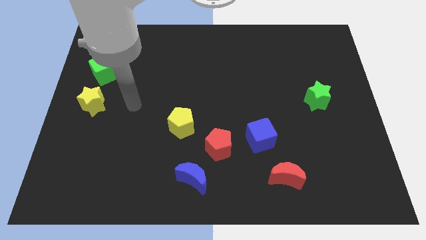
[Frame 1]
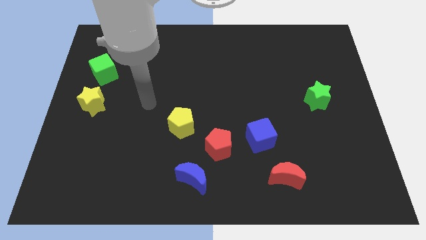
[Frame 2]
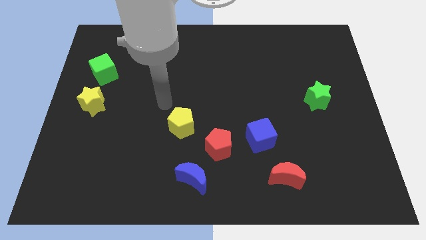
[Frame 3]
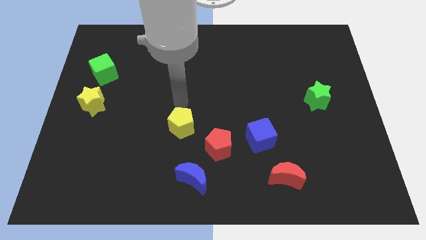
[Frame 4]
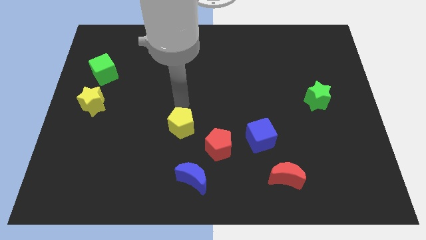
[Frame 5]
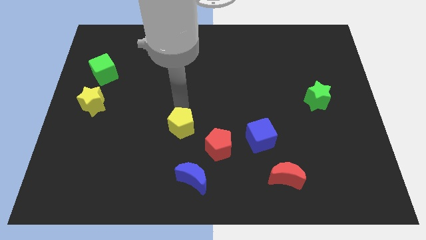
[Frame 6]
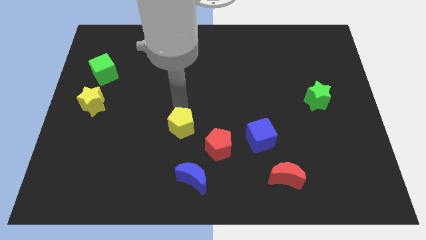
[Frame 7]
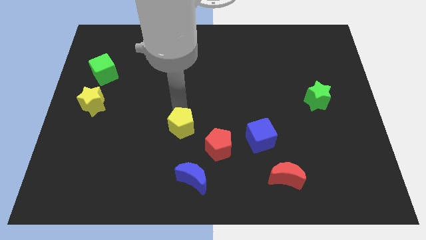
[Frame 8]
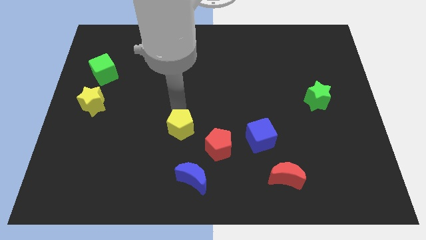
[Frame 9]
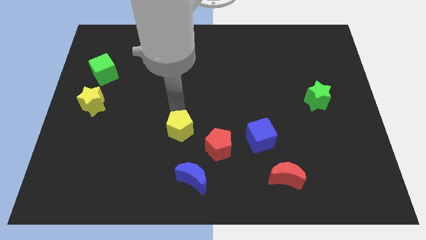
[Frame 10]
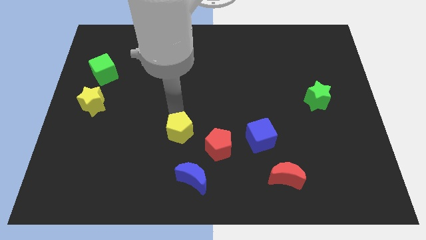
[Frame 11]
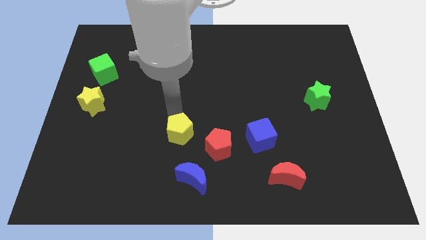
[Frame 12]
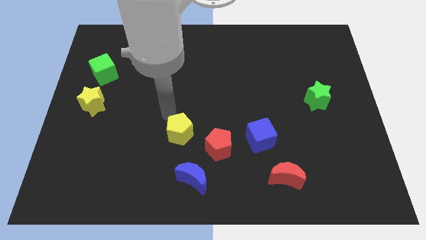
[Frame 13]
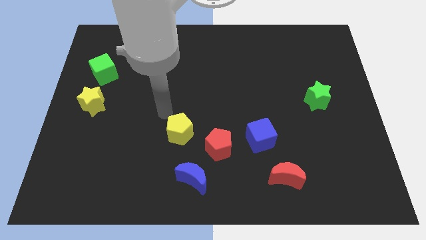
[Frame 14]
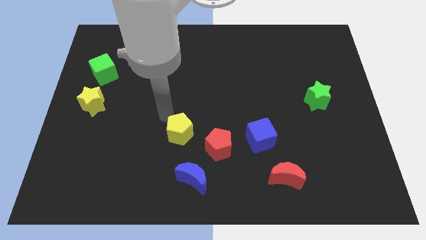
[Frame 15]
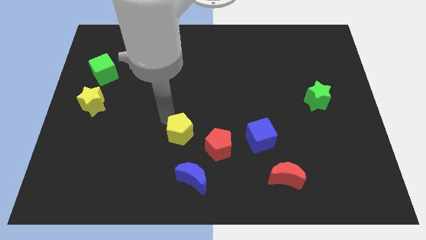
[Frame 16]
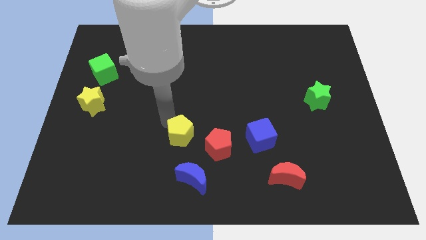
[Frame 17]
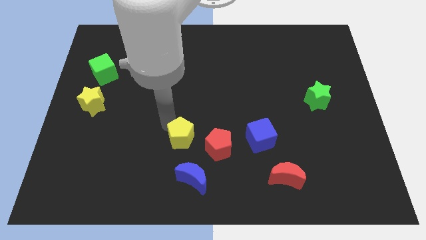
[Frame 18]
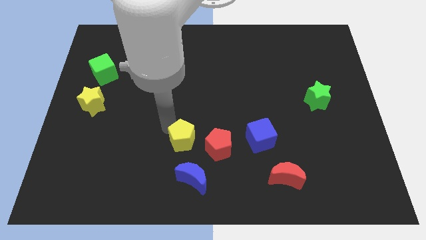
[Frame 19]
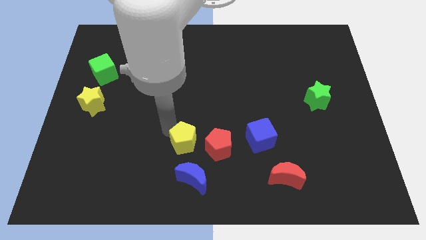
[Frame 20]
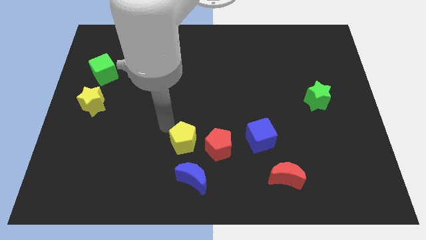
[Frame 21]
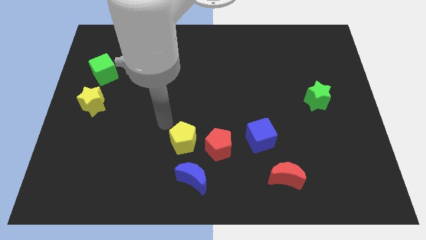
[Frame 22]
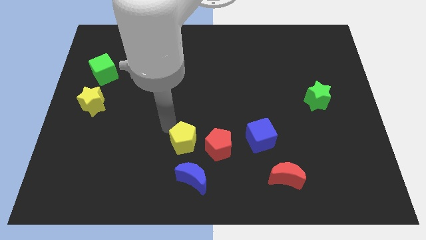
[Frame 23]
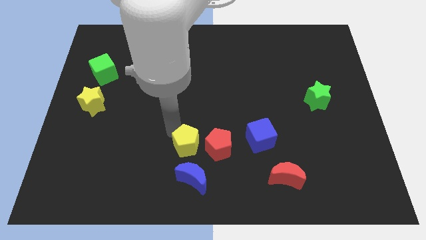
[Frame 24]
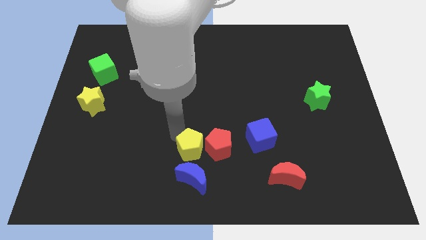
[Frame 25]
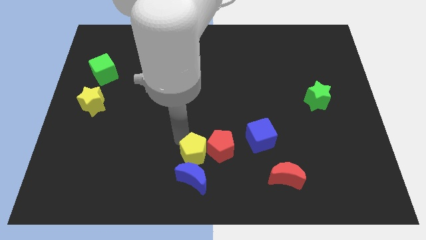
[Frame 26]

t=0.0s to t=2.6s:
move the yellow pentagon a little bit diagonally downwards and right

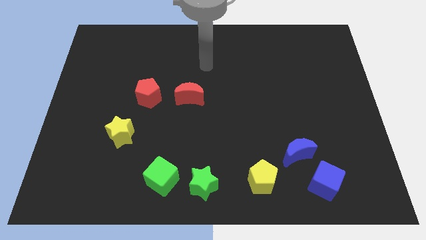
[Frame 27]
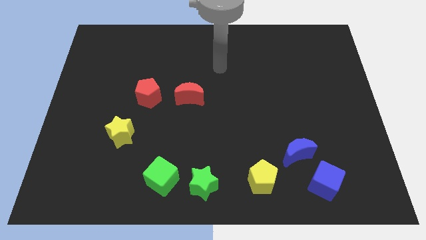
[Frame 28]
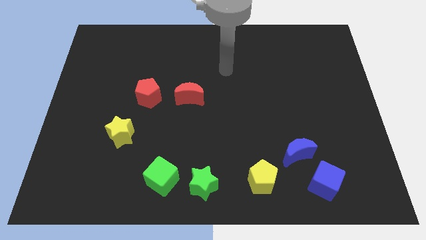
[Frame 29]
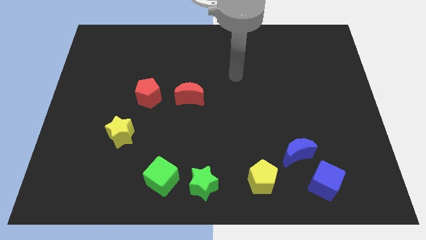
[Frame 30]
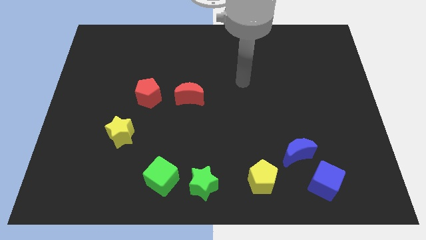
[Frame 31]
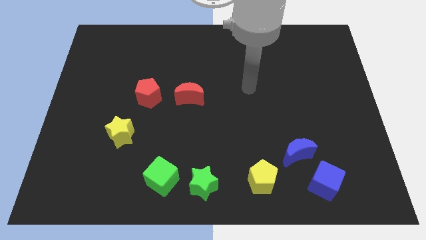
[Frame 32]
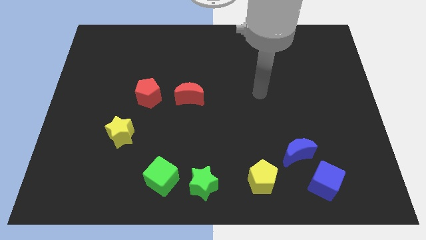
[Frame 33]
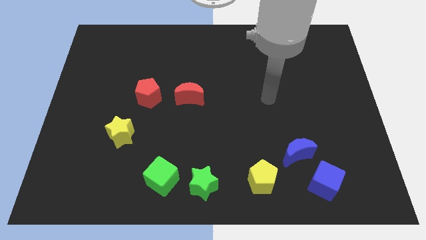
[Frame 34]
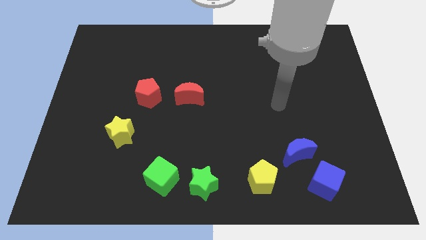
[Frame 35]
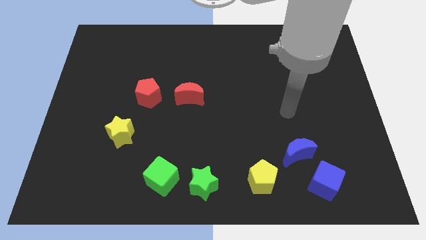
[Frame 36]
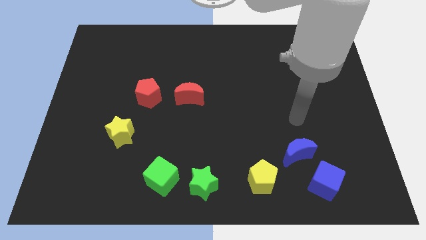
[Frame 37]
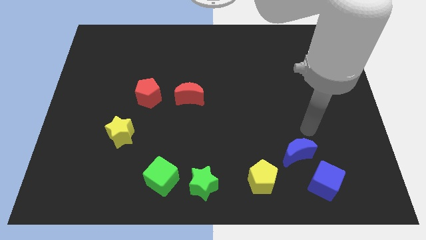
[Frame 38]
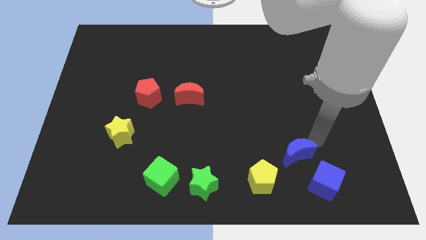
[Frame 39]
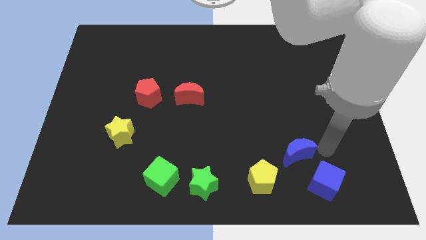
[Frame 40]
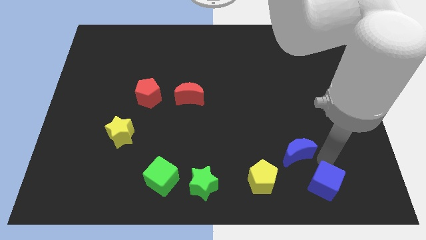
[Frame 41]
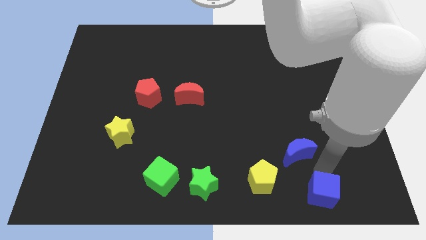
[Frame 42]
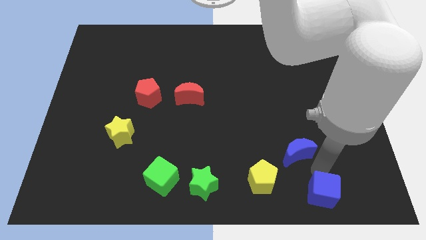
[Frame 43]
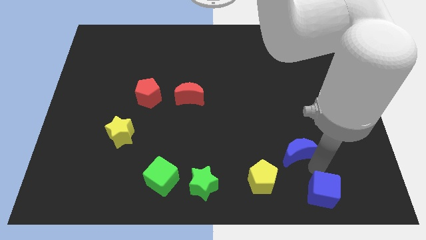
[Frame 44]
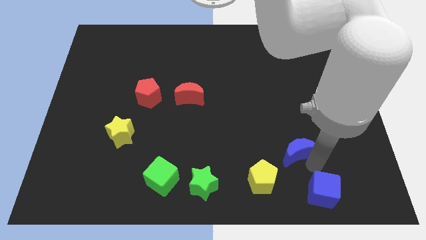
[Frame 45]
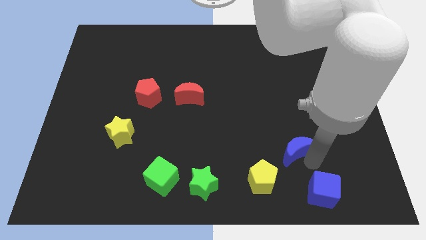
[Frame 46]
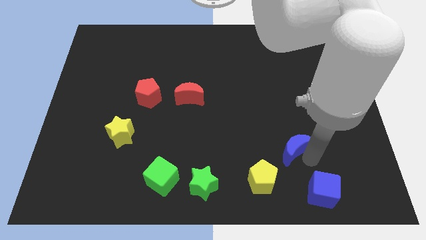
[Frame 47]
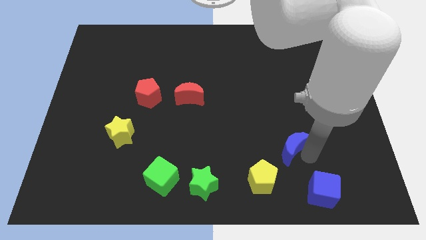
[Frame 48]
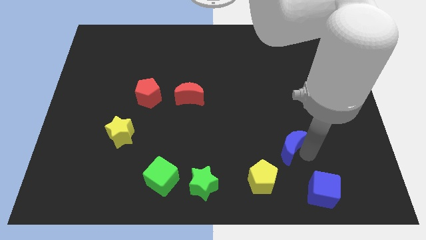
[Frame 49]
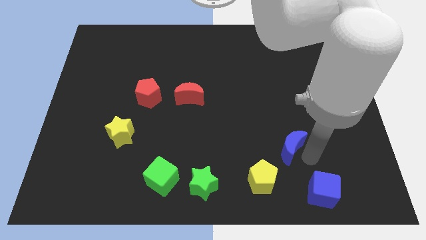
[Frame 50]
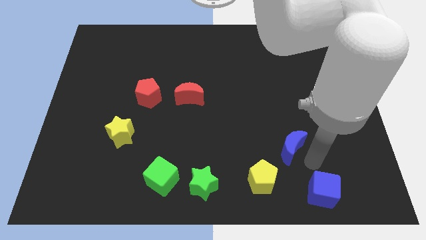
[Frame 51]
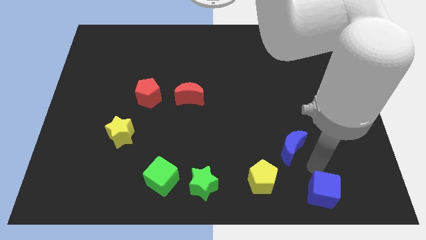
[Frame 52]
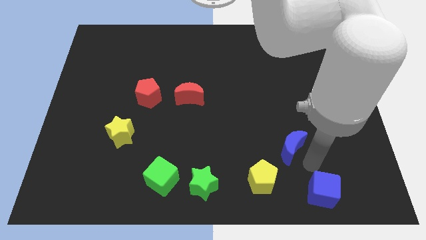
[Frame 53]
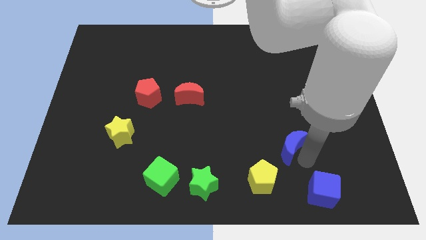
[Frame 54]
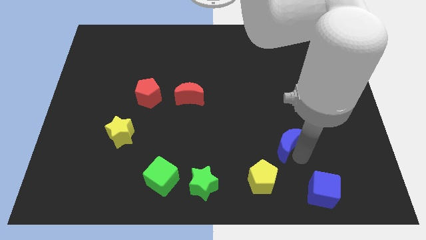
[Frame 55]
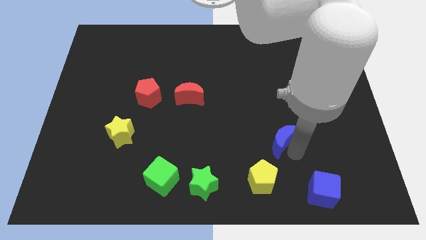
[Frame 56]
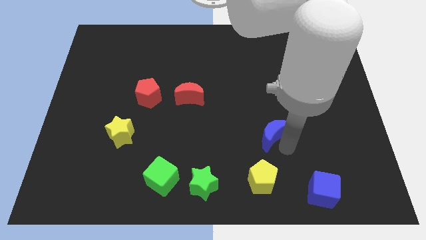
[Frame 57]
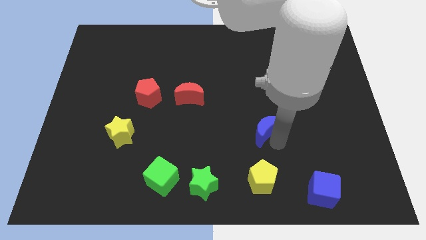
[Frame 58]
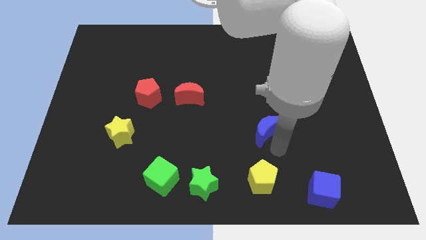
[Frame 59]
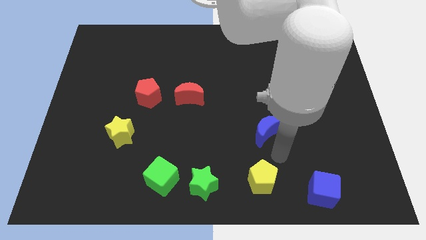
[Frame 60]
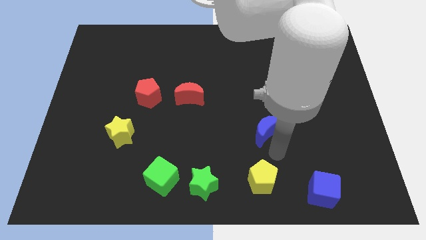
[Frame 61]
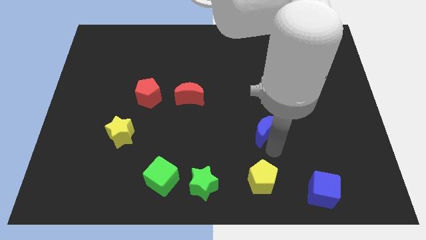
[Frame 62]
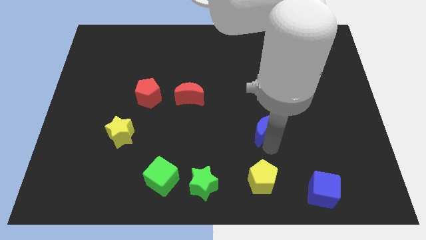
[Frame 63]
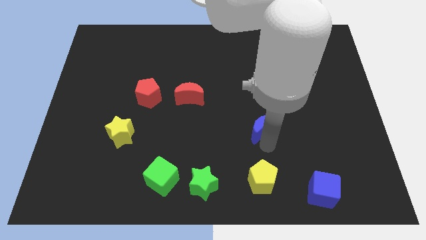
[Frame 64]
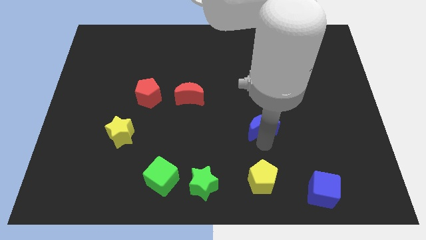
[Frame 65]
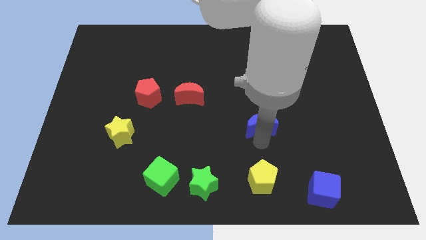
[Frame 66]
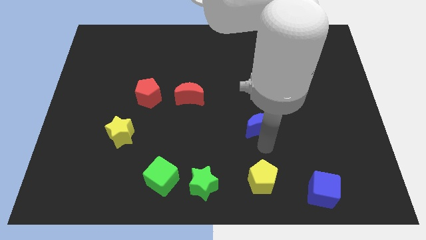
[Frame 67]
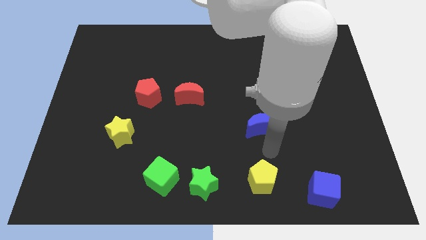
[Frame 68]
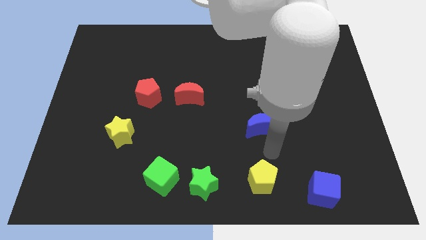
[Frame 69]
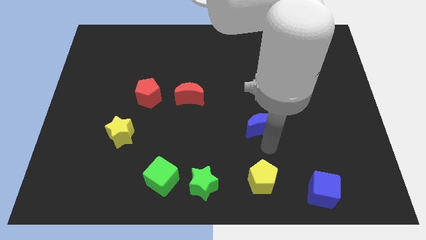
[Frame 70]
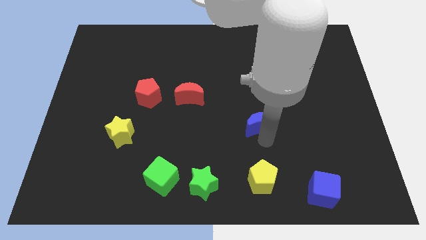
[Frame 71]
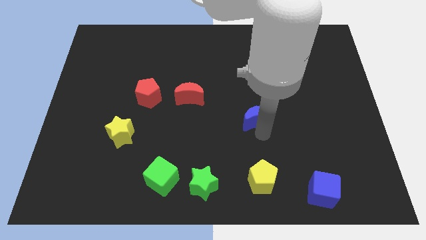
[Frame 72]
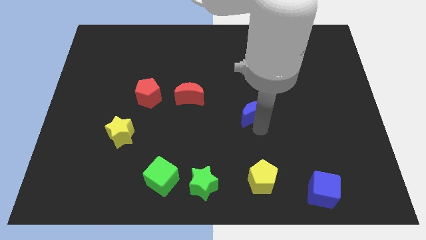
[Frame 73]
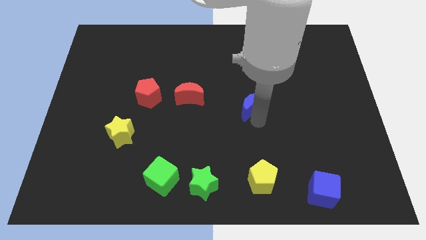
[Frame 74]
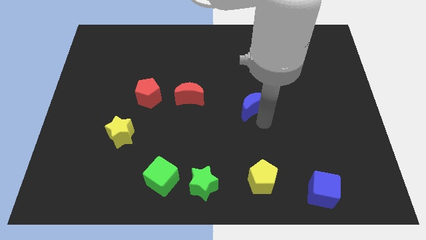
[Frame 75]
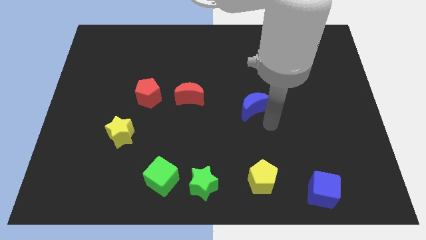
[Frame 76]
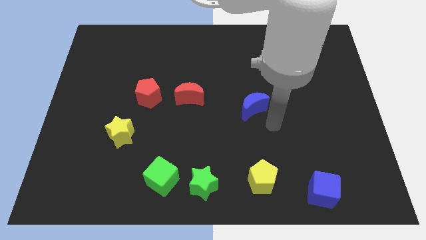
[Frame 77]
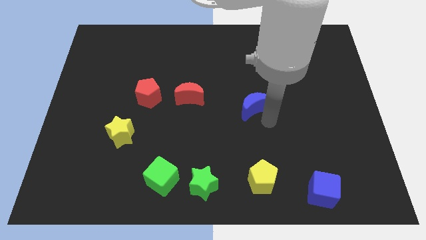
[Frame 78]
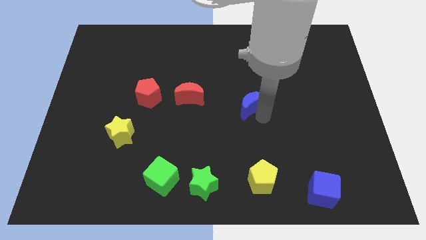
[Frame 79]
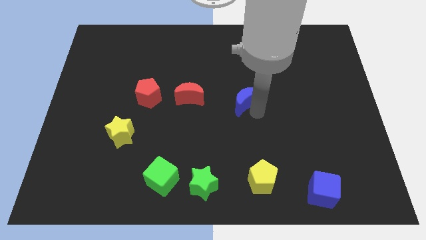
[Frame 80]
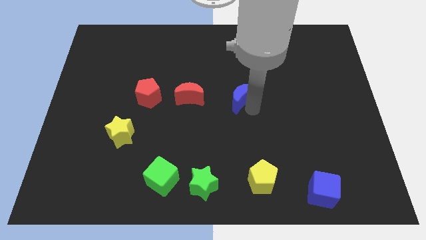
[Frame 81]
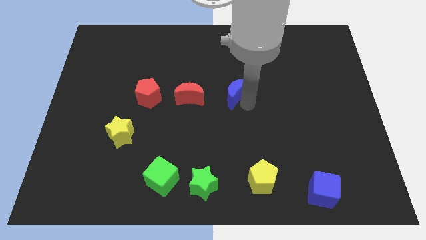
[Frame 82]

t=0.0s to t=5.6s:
move the blue moon upwards and then to the left

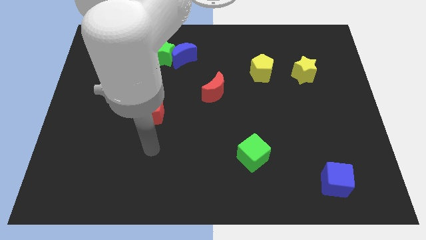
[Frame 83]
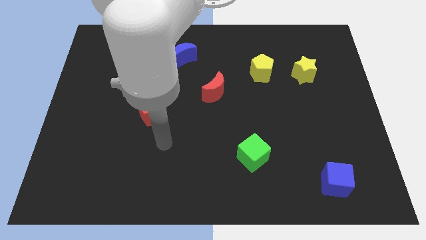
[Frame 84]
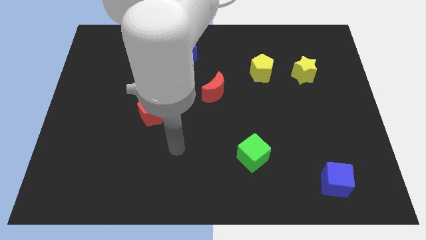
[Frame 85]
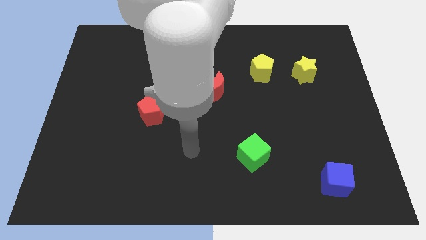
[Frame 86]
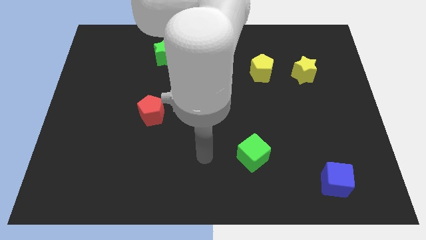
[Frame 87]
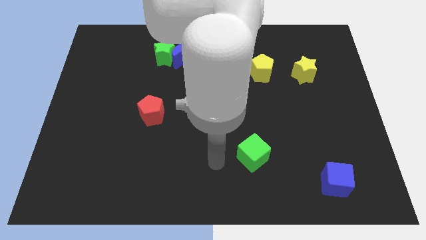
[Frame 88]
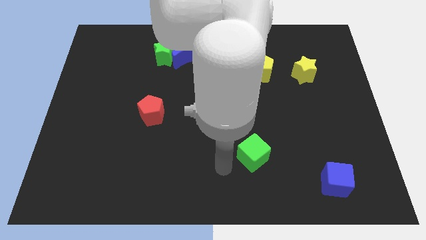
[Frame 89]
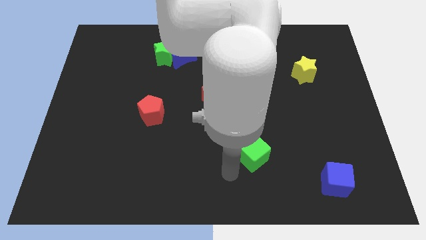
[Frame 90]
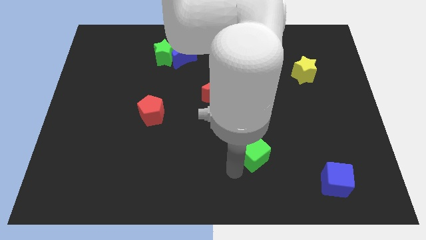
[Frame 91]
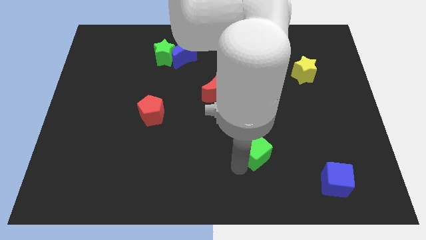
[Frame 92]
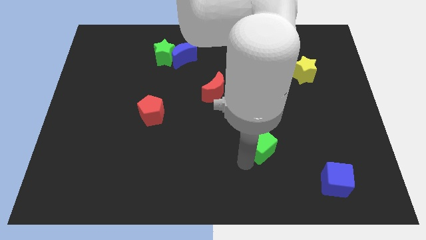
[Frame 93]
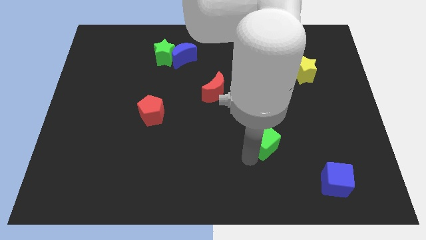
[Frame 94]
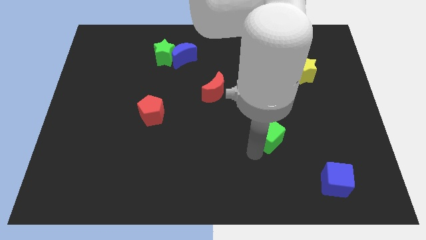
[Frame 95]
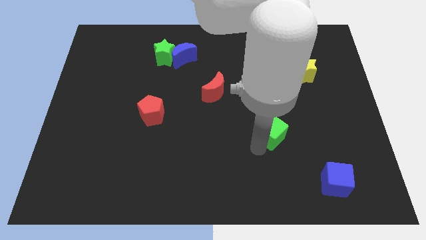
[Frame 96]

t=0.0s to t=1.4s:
push the green cube a little up and to the right
